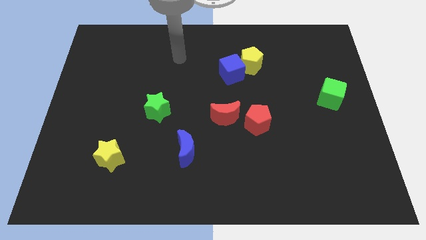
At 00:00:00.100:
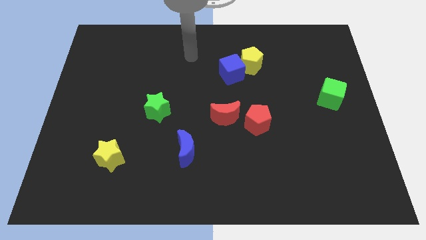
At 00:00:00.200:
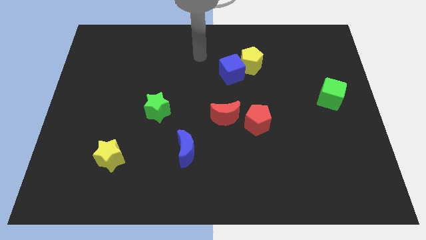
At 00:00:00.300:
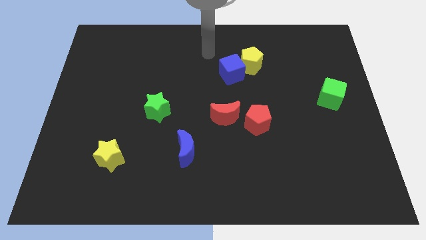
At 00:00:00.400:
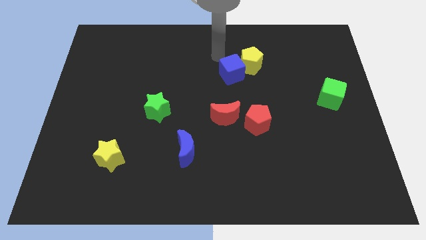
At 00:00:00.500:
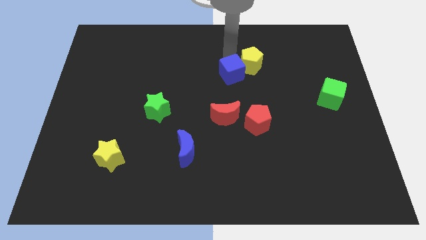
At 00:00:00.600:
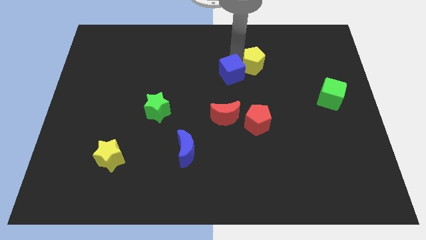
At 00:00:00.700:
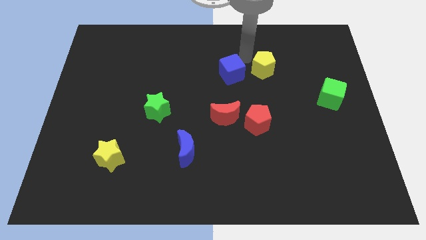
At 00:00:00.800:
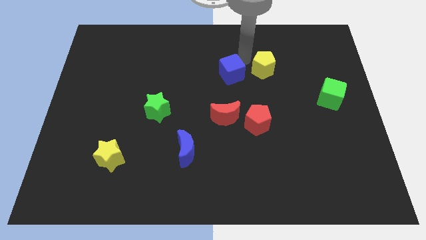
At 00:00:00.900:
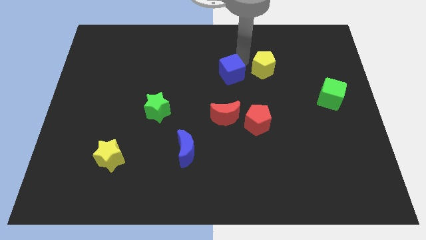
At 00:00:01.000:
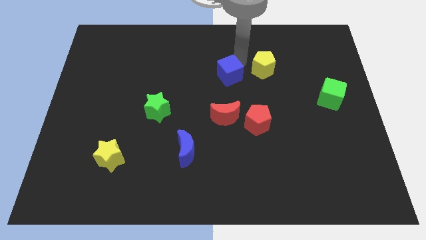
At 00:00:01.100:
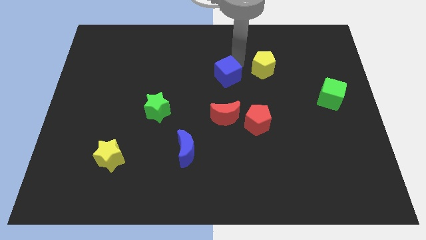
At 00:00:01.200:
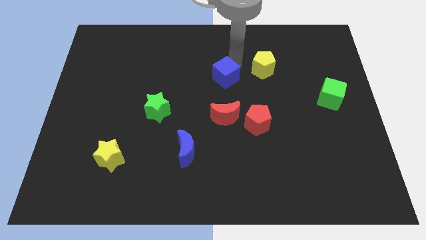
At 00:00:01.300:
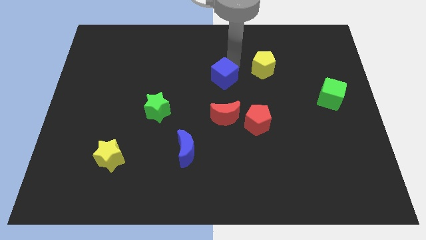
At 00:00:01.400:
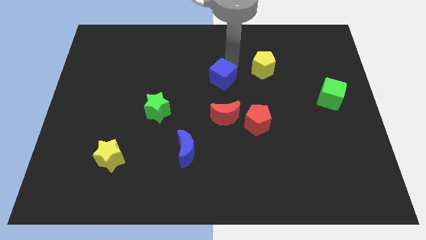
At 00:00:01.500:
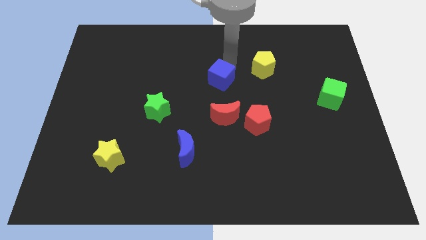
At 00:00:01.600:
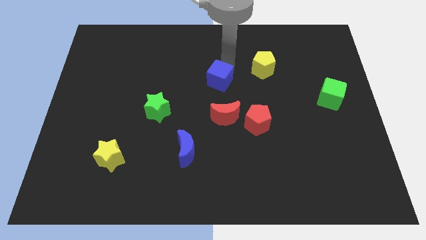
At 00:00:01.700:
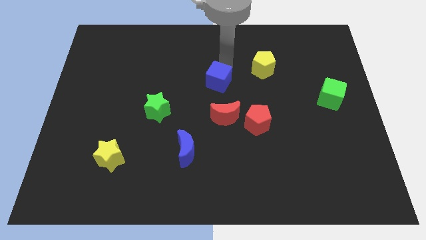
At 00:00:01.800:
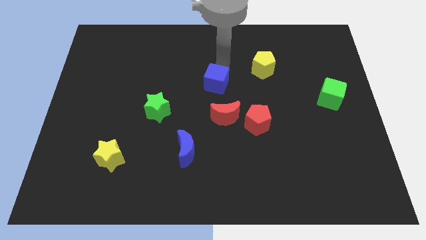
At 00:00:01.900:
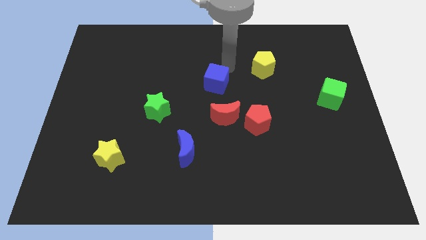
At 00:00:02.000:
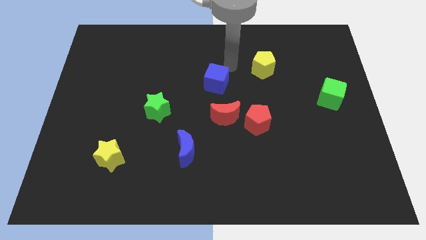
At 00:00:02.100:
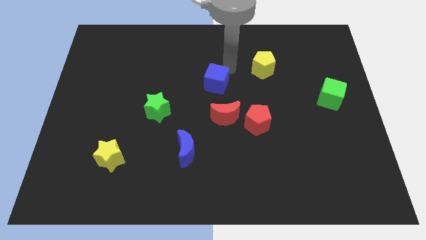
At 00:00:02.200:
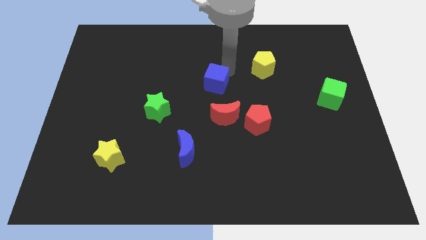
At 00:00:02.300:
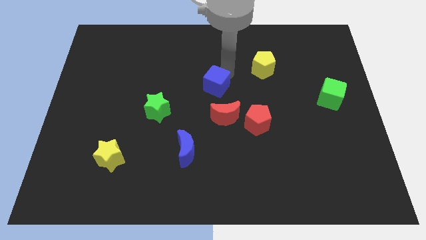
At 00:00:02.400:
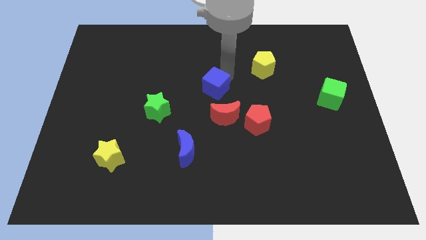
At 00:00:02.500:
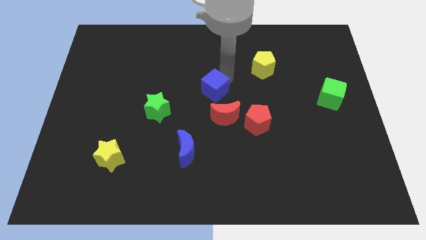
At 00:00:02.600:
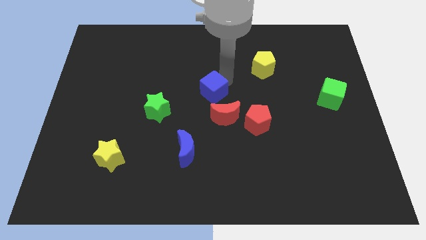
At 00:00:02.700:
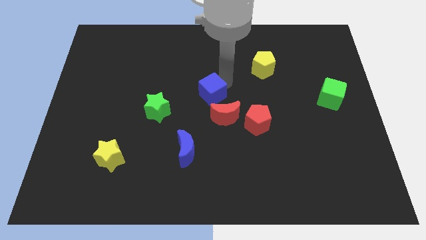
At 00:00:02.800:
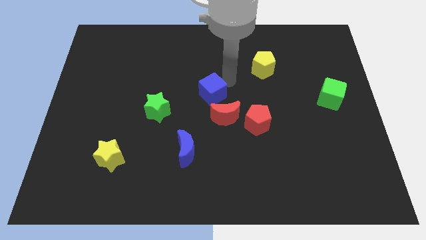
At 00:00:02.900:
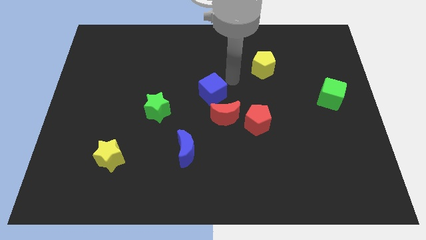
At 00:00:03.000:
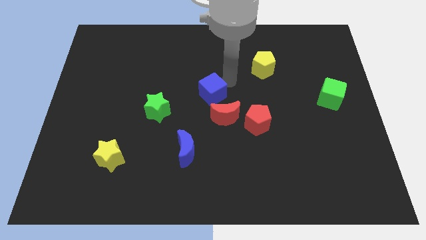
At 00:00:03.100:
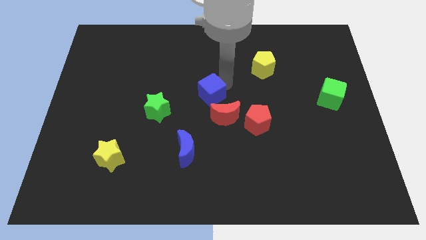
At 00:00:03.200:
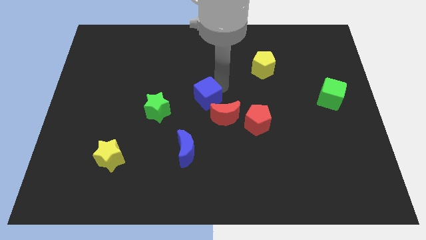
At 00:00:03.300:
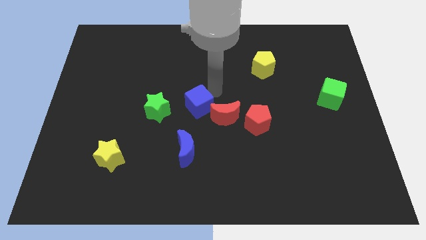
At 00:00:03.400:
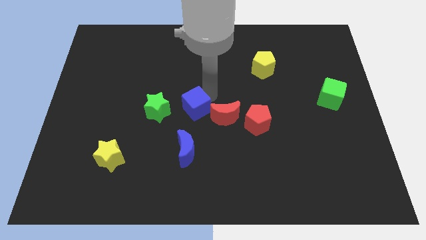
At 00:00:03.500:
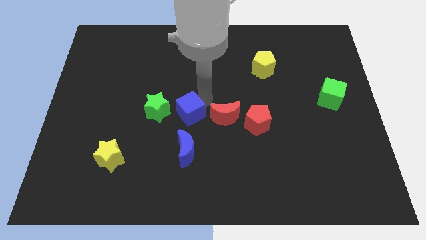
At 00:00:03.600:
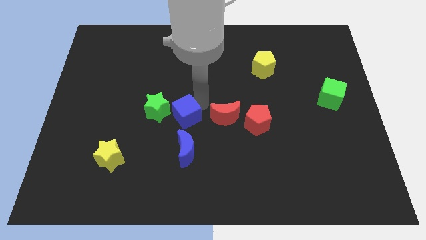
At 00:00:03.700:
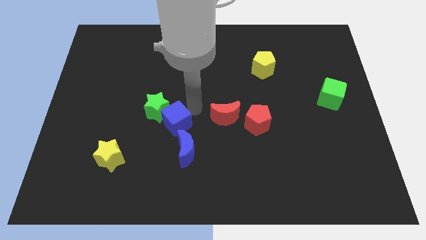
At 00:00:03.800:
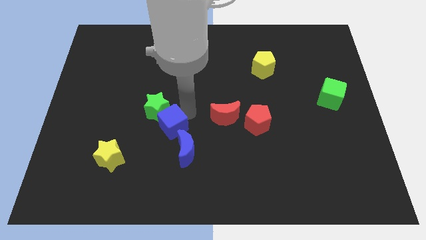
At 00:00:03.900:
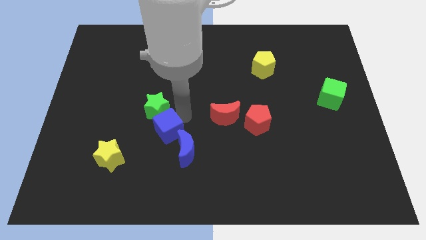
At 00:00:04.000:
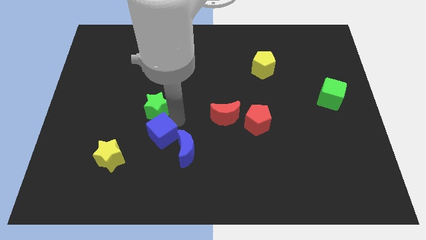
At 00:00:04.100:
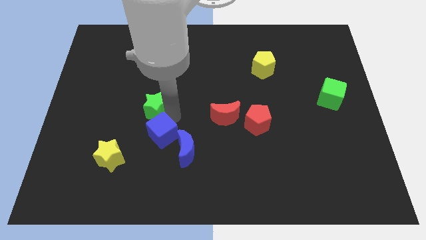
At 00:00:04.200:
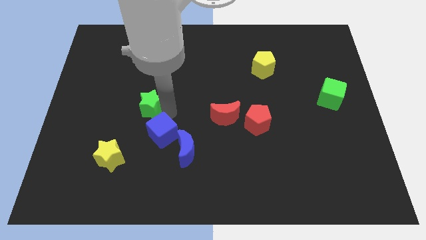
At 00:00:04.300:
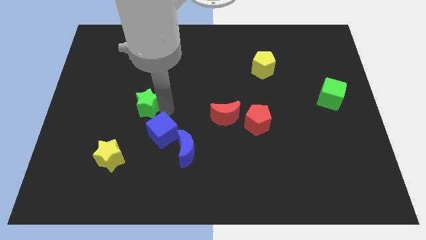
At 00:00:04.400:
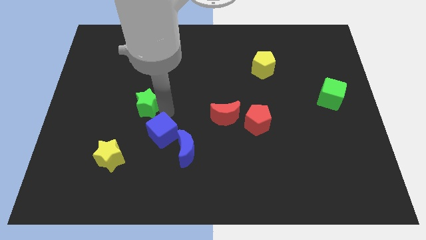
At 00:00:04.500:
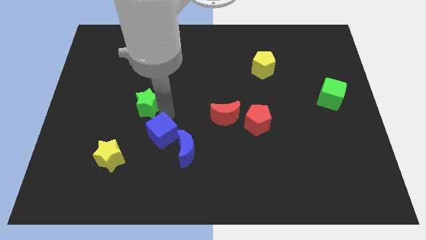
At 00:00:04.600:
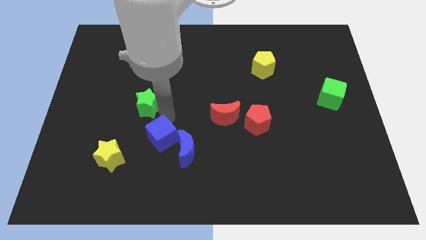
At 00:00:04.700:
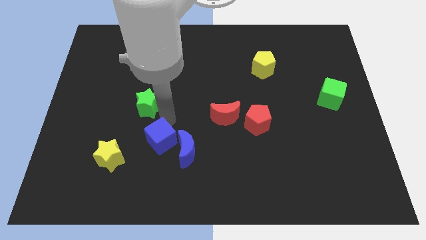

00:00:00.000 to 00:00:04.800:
slide the blue cube to the right of the yellow star

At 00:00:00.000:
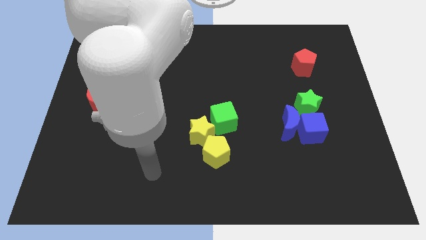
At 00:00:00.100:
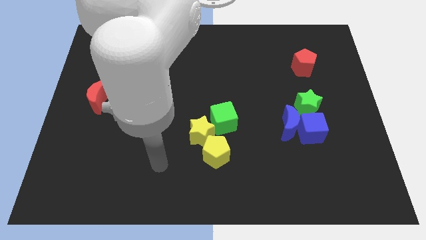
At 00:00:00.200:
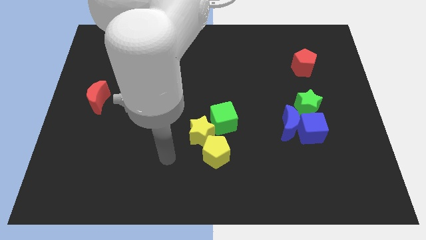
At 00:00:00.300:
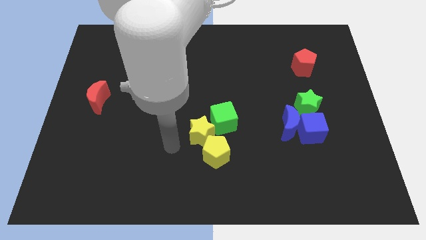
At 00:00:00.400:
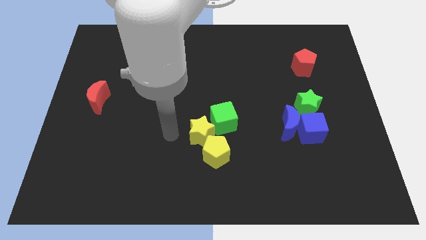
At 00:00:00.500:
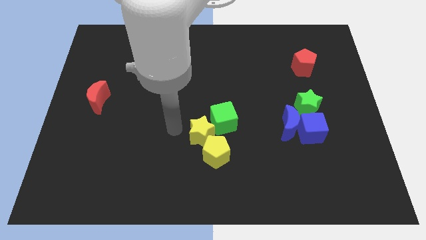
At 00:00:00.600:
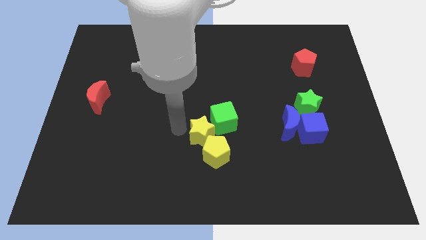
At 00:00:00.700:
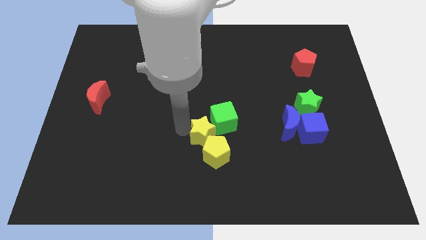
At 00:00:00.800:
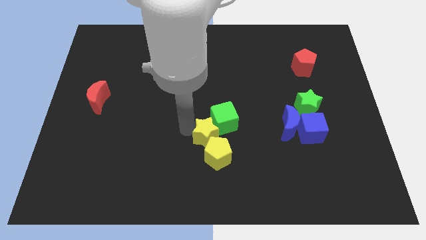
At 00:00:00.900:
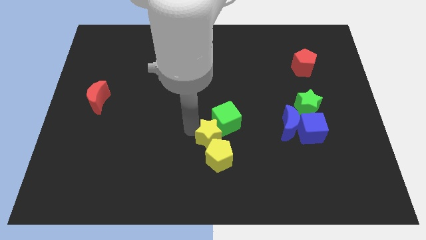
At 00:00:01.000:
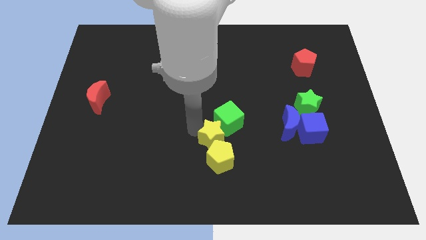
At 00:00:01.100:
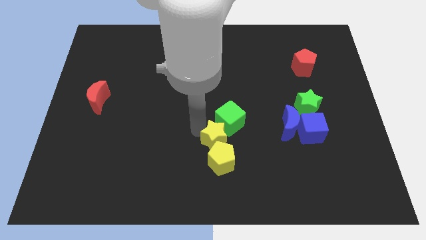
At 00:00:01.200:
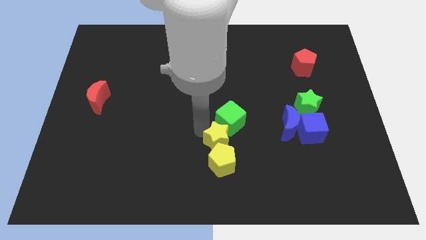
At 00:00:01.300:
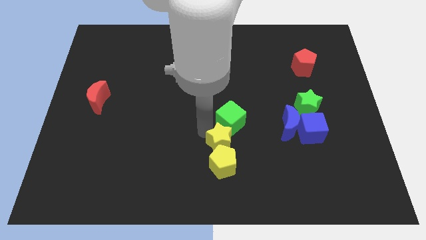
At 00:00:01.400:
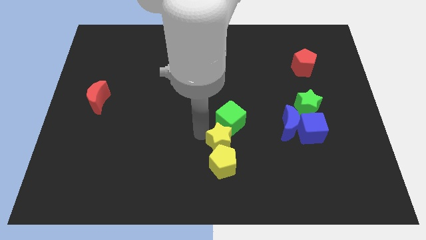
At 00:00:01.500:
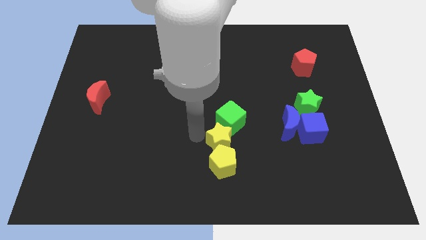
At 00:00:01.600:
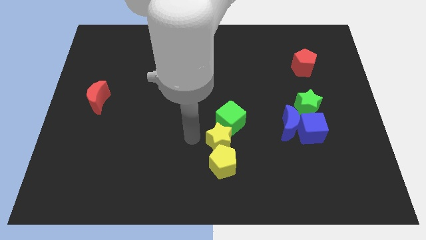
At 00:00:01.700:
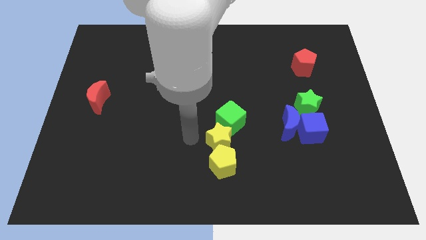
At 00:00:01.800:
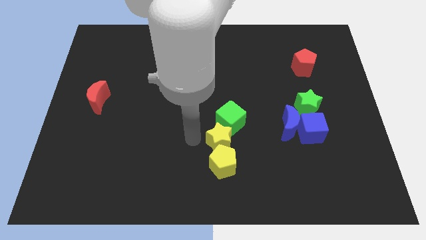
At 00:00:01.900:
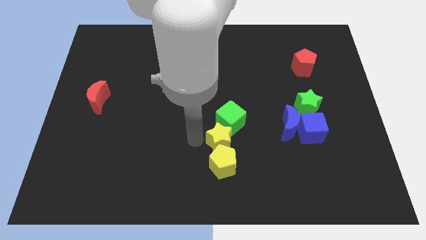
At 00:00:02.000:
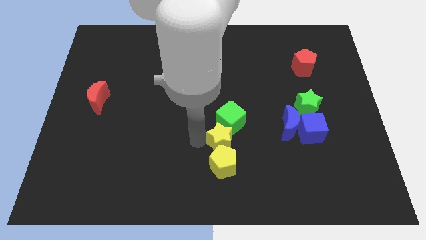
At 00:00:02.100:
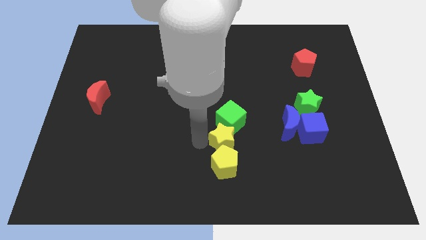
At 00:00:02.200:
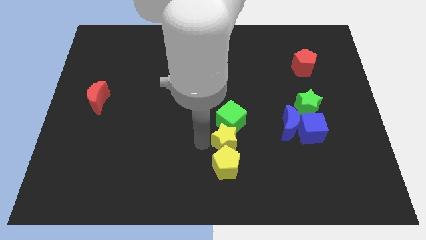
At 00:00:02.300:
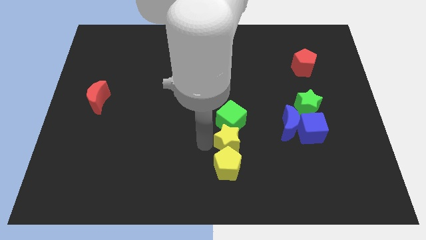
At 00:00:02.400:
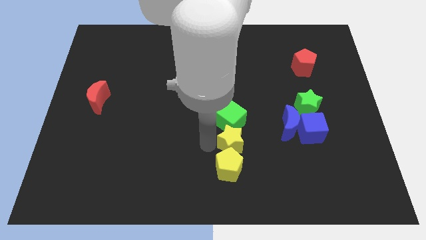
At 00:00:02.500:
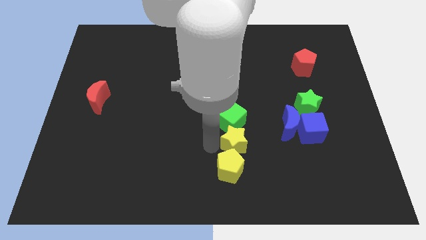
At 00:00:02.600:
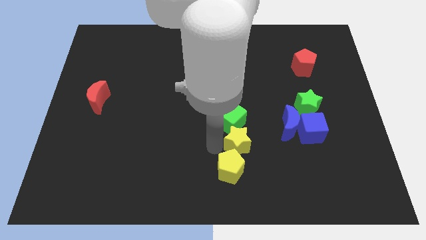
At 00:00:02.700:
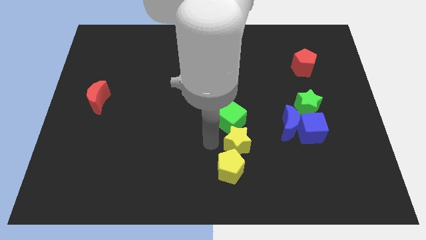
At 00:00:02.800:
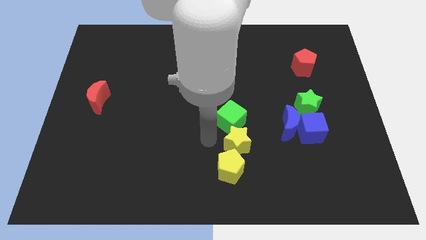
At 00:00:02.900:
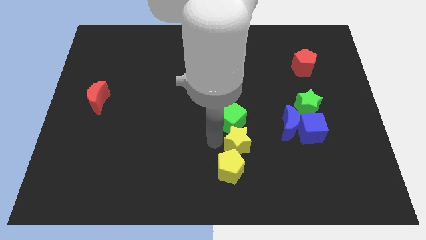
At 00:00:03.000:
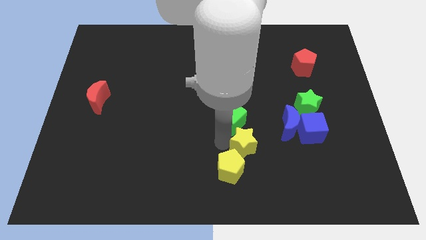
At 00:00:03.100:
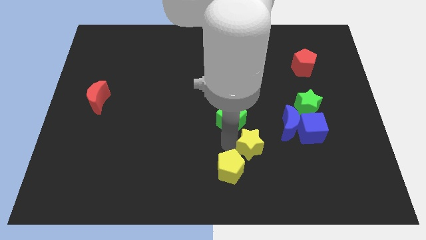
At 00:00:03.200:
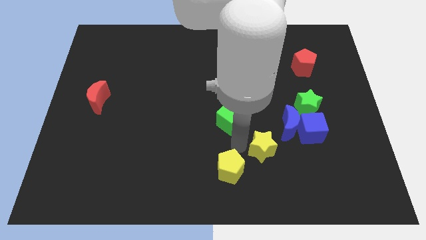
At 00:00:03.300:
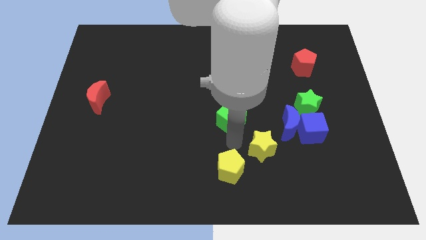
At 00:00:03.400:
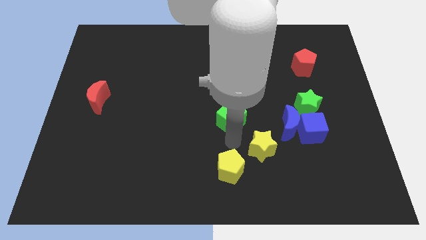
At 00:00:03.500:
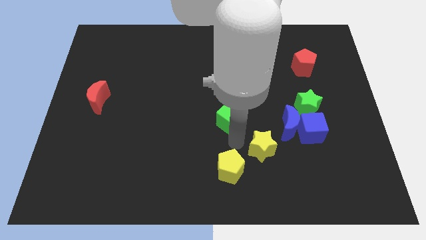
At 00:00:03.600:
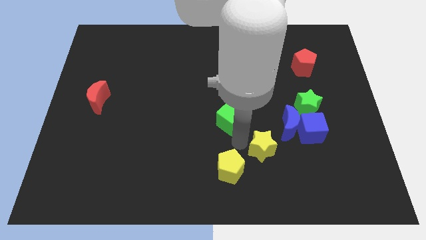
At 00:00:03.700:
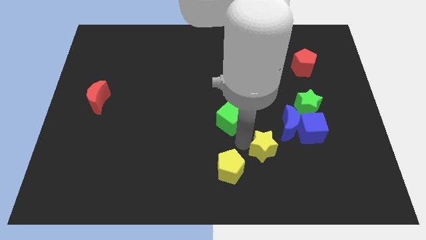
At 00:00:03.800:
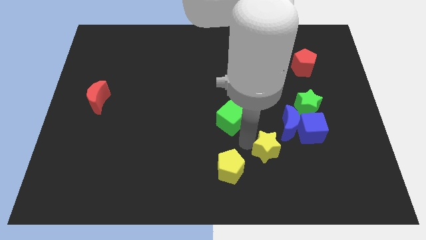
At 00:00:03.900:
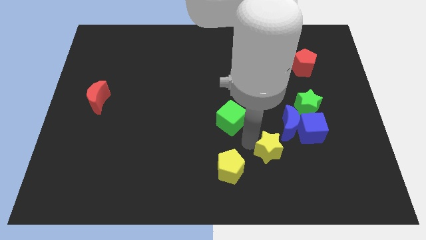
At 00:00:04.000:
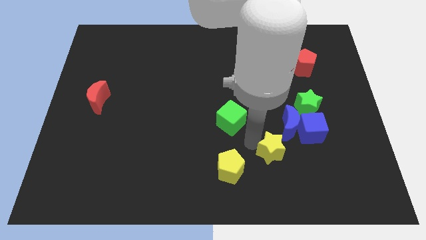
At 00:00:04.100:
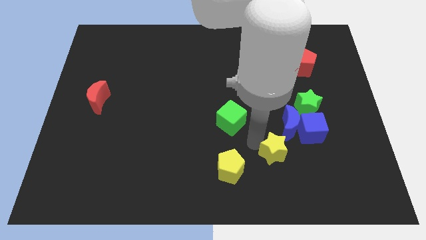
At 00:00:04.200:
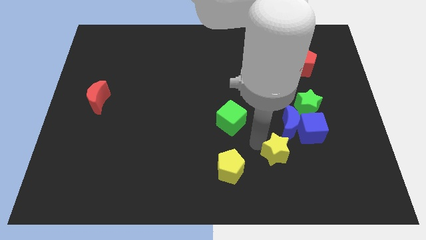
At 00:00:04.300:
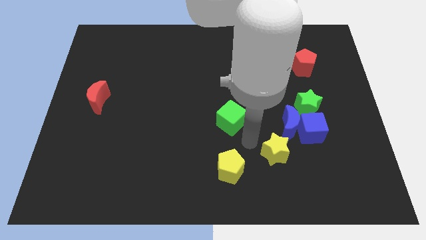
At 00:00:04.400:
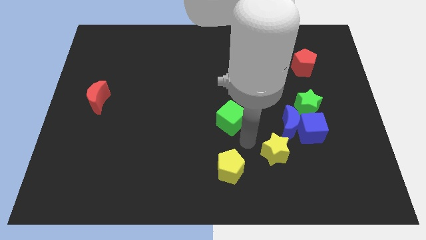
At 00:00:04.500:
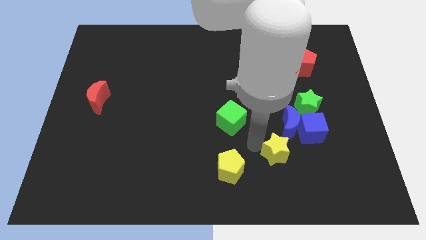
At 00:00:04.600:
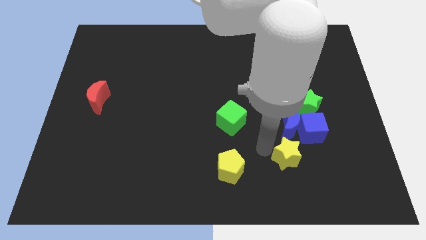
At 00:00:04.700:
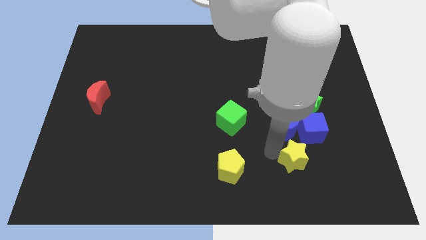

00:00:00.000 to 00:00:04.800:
put the yellow star to the bottom side of the blue cube
